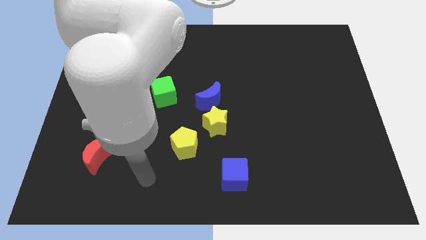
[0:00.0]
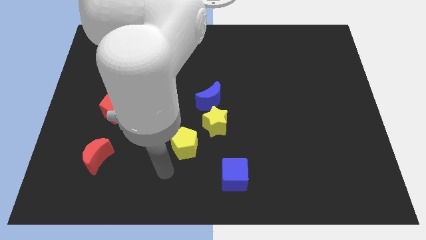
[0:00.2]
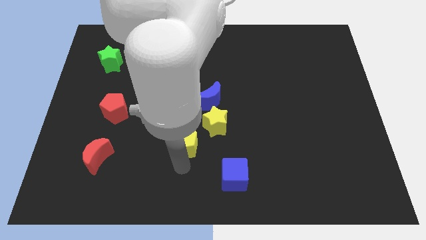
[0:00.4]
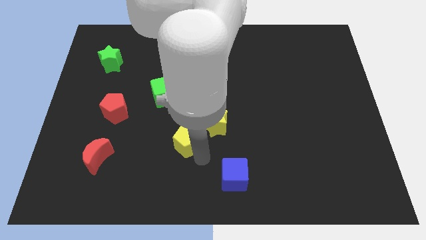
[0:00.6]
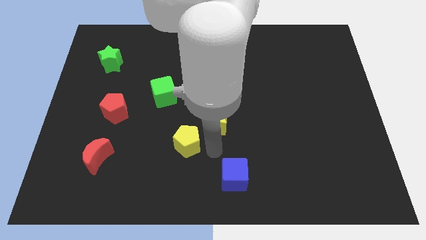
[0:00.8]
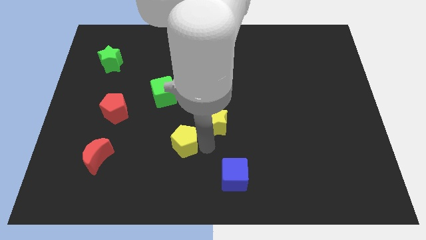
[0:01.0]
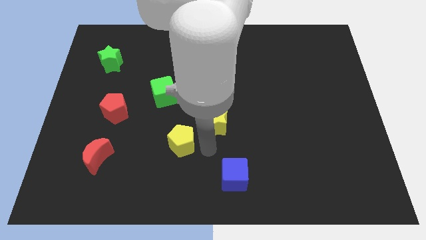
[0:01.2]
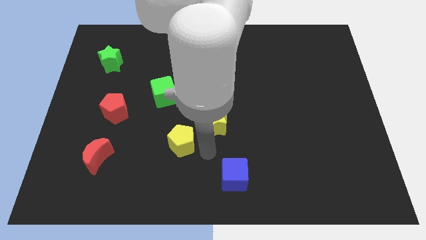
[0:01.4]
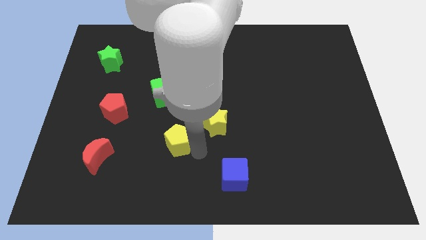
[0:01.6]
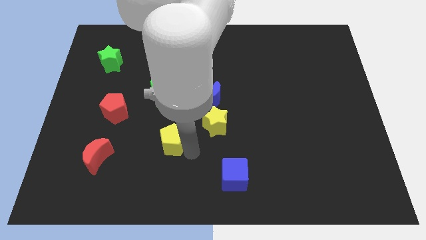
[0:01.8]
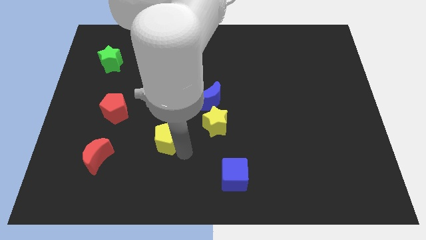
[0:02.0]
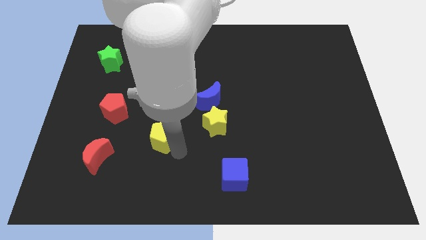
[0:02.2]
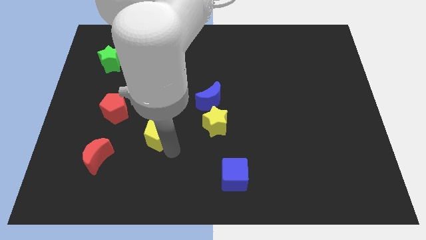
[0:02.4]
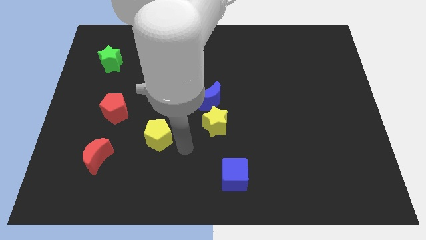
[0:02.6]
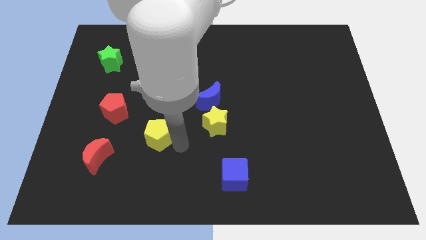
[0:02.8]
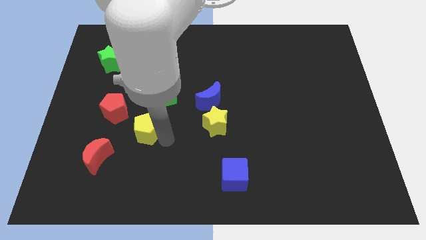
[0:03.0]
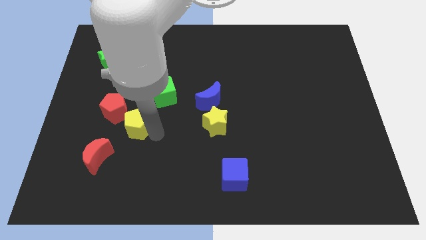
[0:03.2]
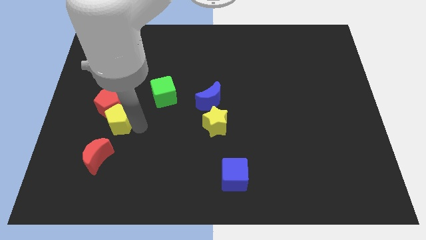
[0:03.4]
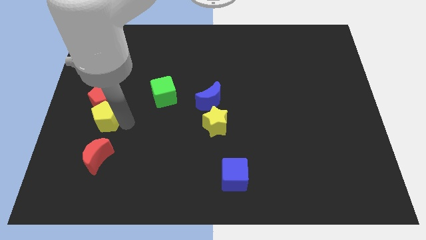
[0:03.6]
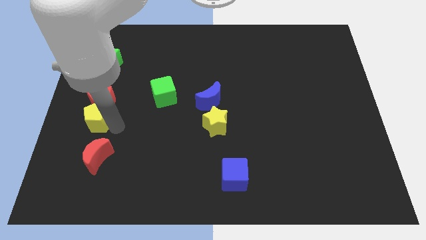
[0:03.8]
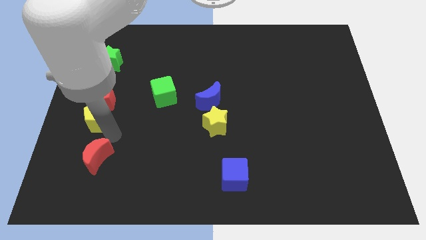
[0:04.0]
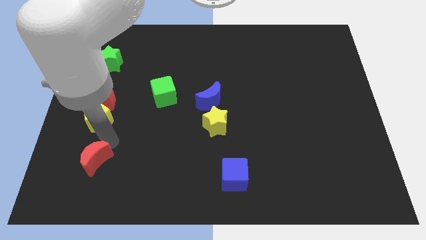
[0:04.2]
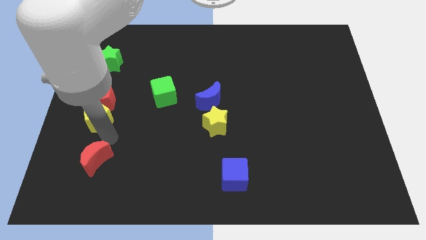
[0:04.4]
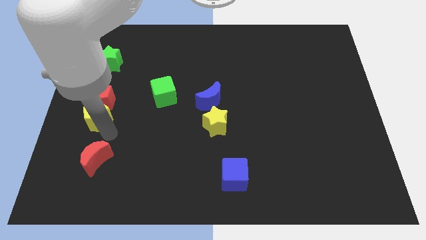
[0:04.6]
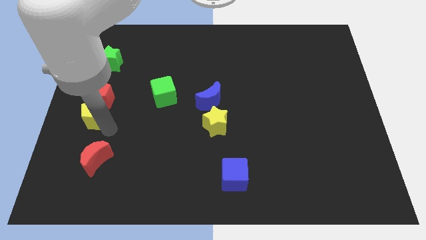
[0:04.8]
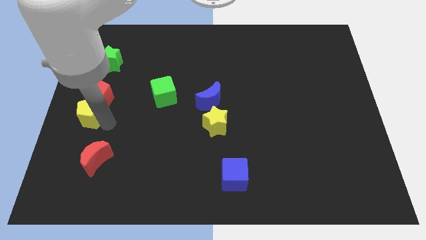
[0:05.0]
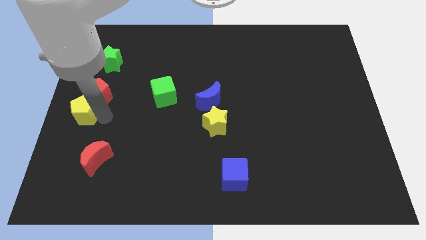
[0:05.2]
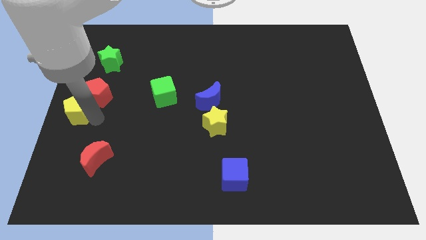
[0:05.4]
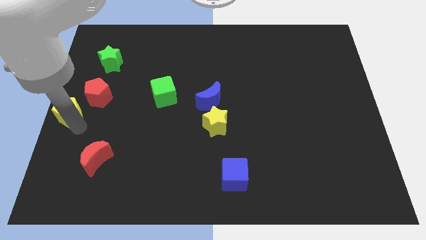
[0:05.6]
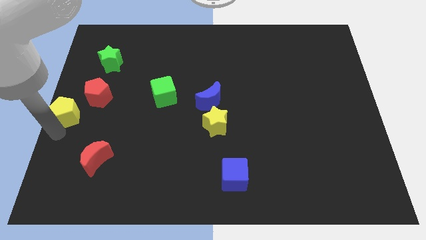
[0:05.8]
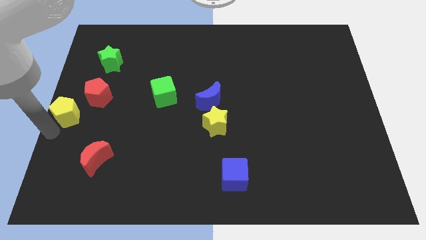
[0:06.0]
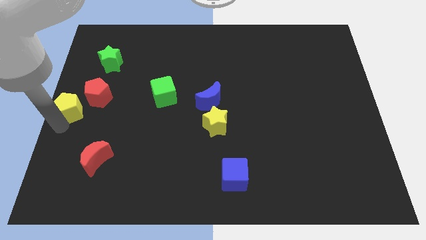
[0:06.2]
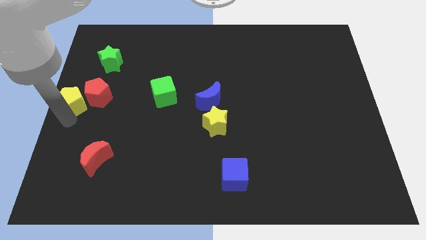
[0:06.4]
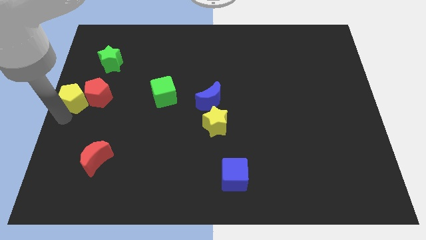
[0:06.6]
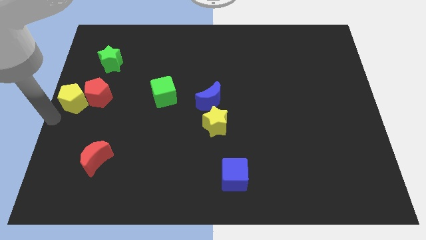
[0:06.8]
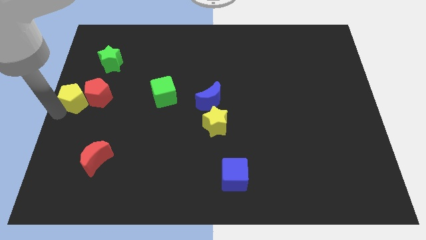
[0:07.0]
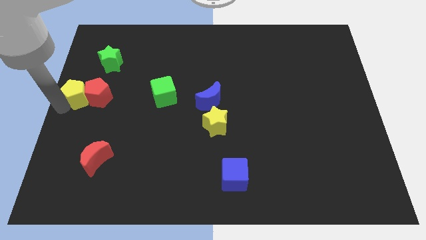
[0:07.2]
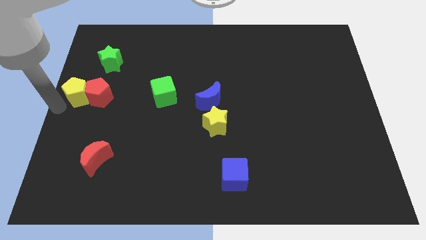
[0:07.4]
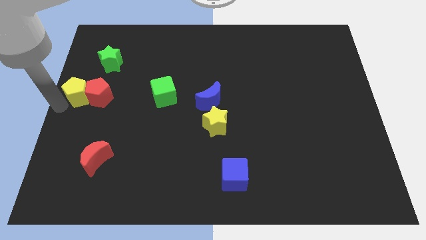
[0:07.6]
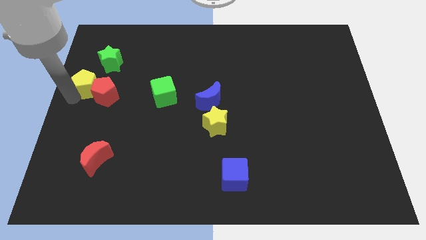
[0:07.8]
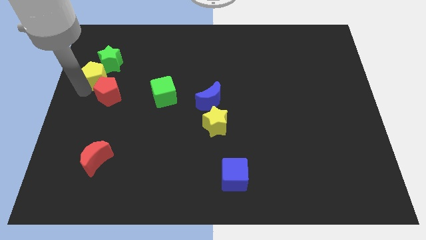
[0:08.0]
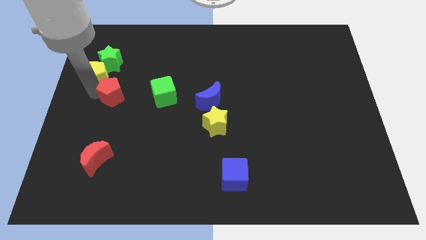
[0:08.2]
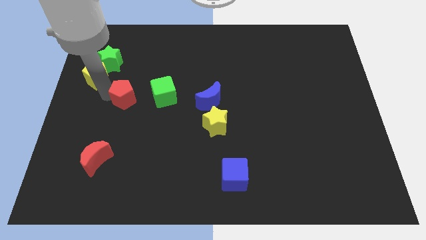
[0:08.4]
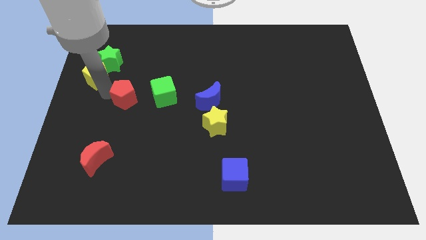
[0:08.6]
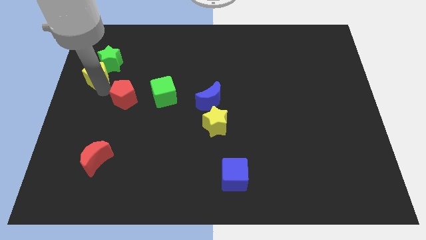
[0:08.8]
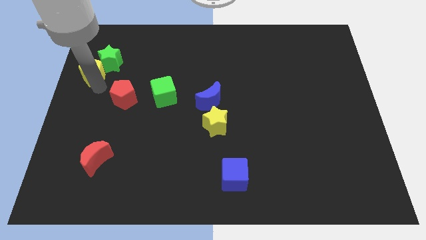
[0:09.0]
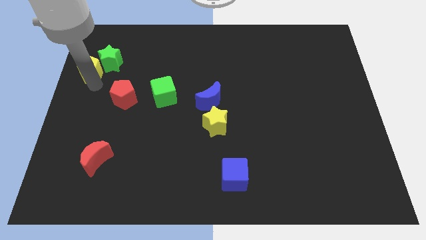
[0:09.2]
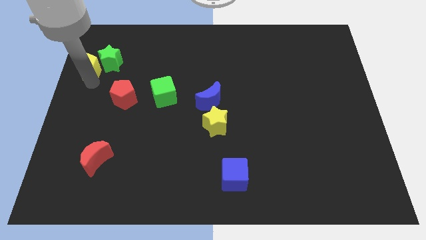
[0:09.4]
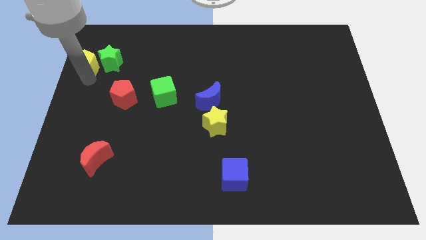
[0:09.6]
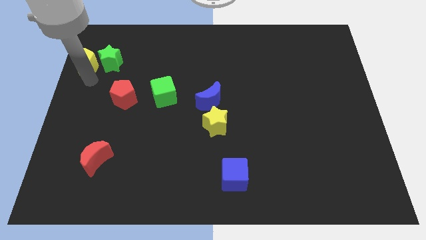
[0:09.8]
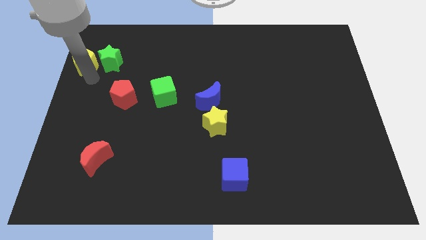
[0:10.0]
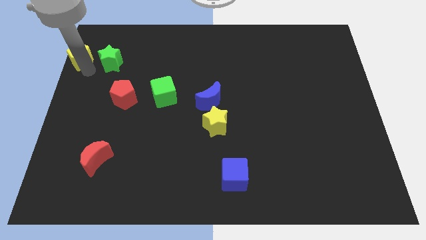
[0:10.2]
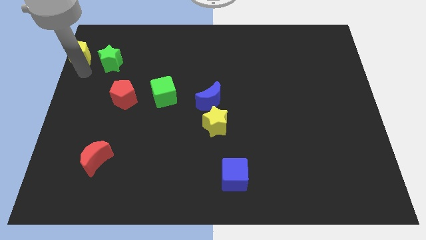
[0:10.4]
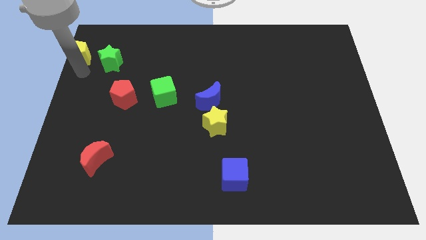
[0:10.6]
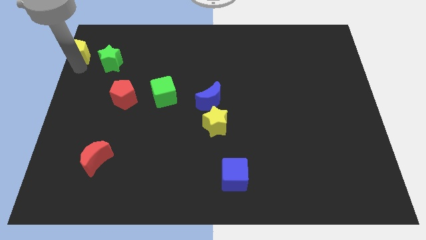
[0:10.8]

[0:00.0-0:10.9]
push the yellow pentagon to the top left corner
